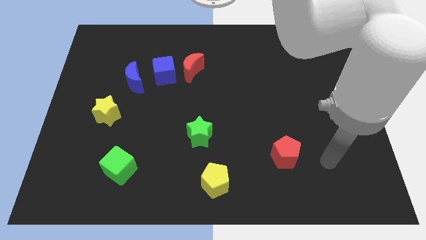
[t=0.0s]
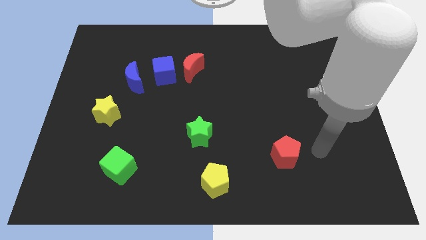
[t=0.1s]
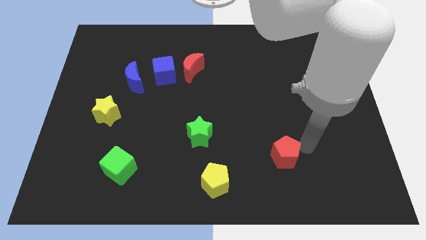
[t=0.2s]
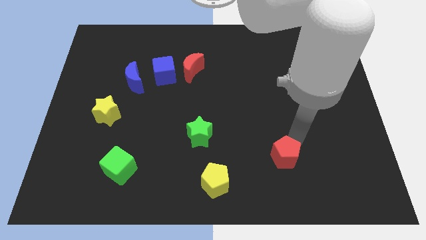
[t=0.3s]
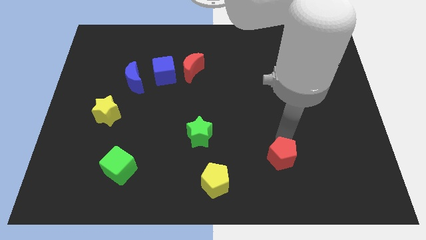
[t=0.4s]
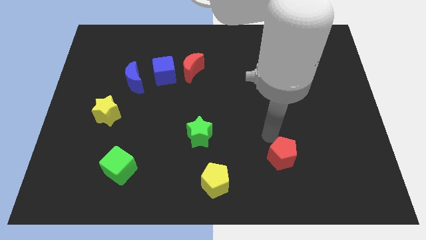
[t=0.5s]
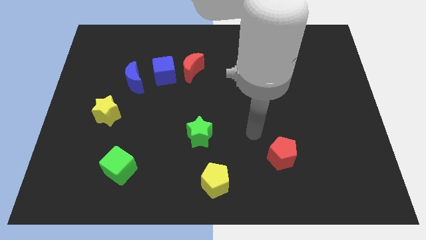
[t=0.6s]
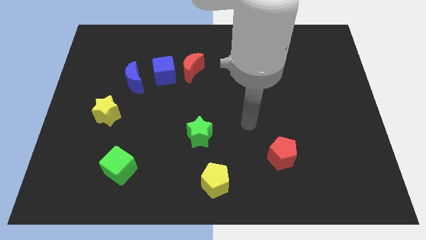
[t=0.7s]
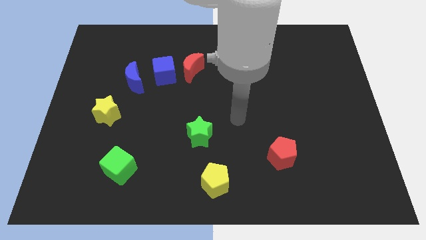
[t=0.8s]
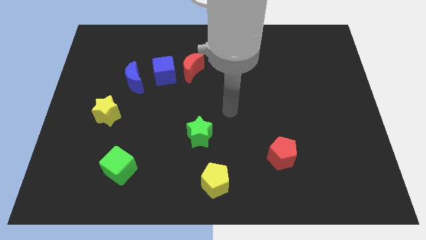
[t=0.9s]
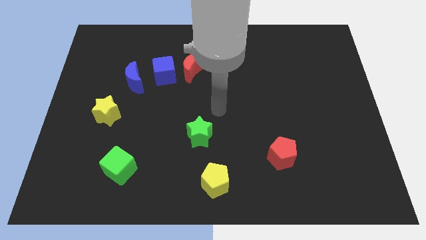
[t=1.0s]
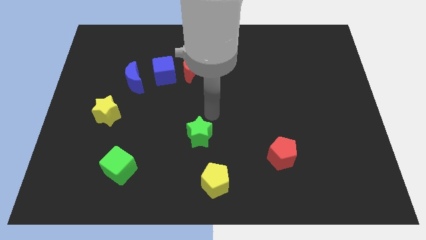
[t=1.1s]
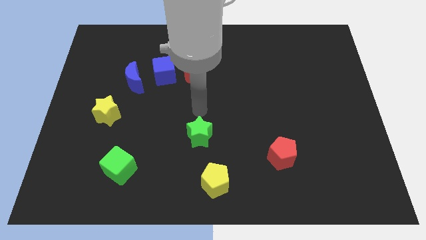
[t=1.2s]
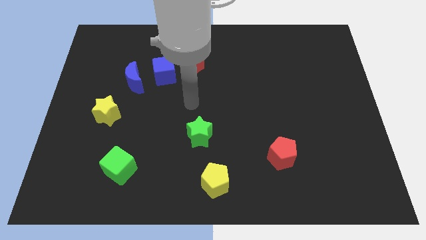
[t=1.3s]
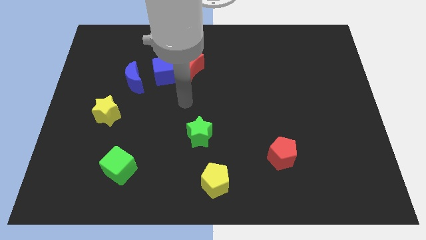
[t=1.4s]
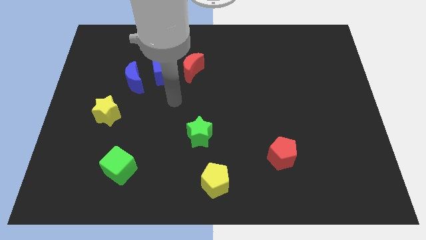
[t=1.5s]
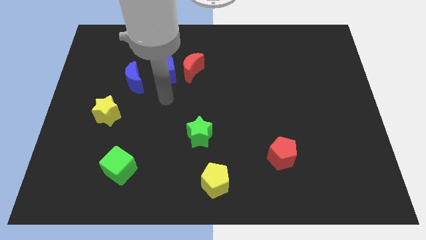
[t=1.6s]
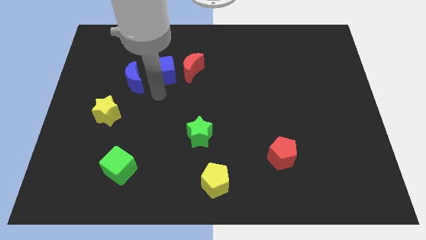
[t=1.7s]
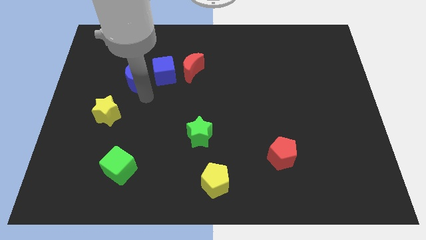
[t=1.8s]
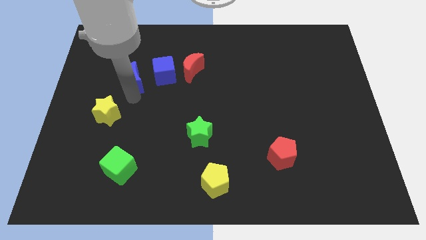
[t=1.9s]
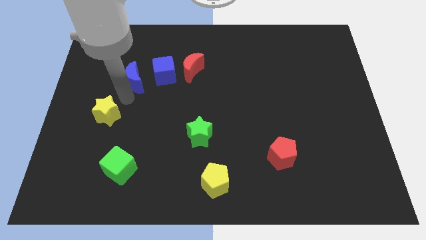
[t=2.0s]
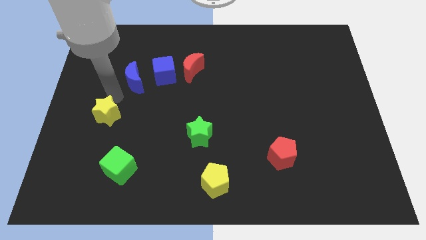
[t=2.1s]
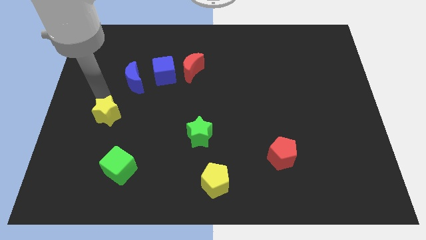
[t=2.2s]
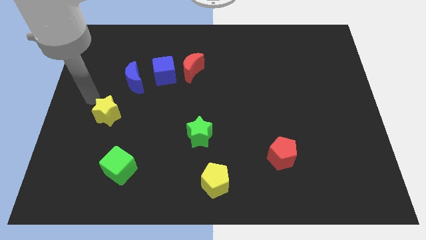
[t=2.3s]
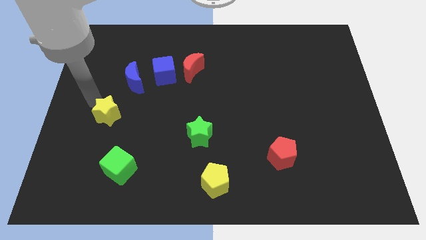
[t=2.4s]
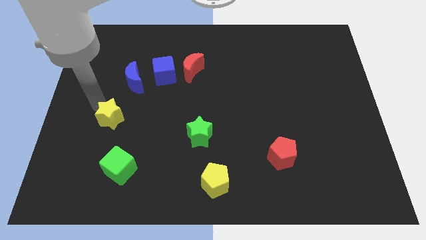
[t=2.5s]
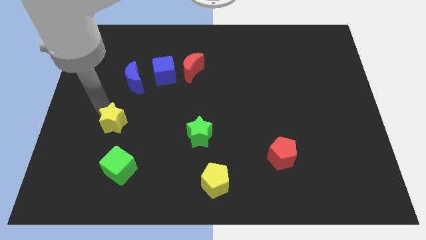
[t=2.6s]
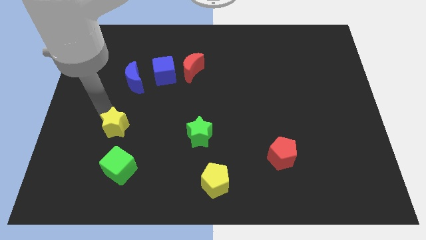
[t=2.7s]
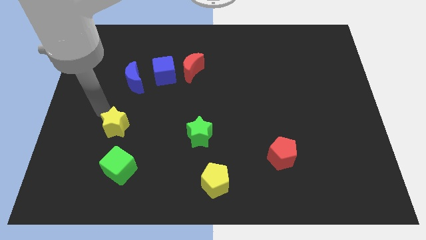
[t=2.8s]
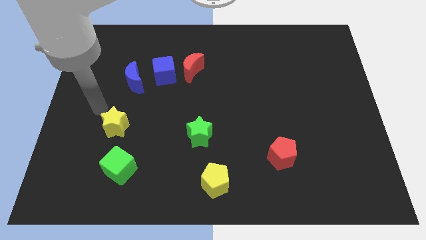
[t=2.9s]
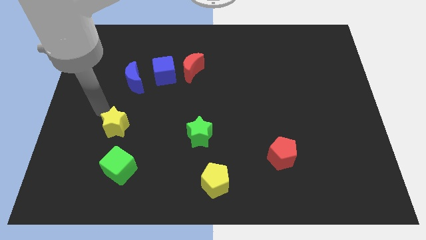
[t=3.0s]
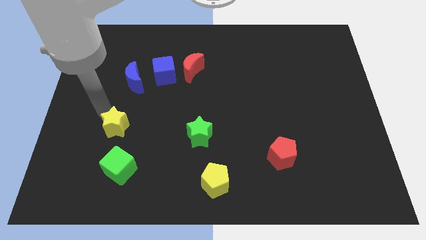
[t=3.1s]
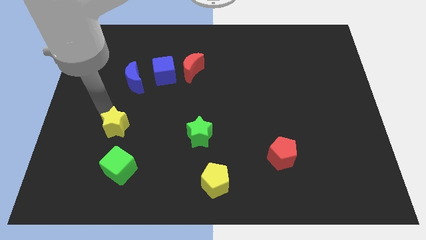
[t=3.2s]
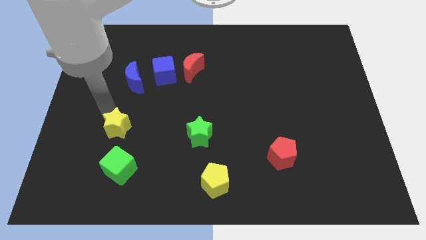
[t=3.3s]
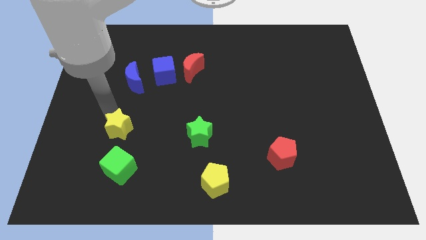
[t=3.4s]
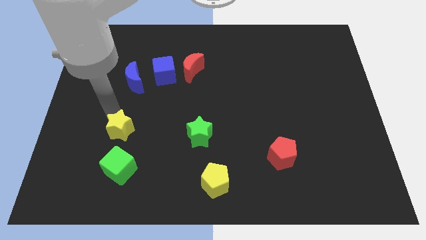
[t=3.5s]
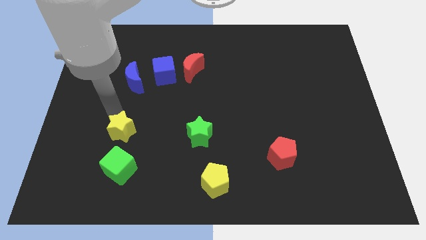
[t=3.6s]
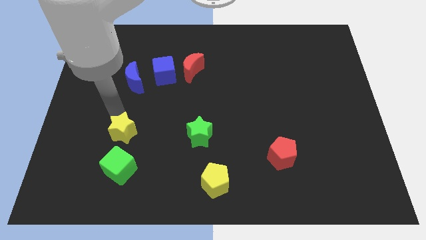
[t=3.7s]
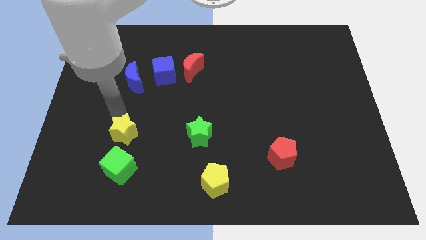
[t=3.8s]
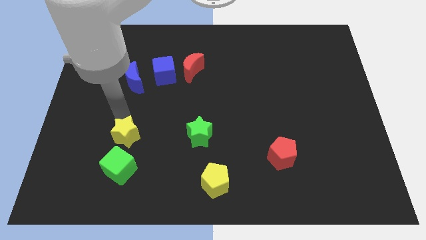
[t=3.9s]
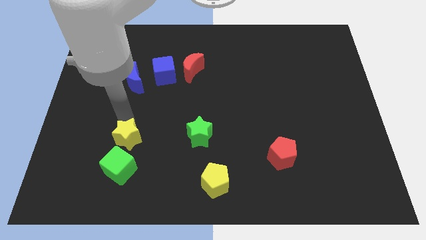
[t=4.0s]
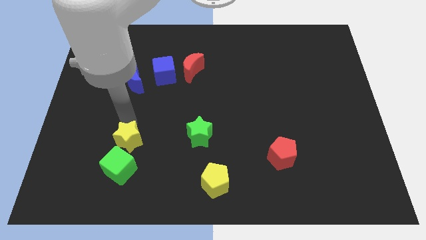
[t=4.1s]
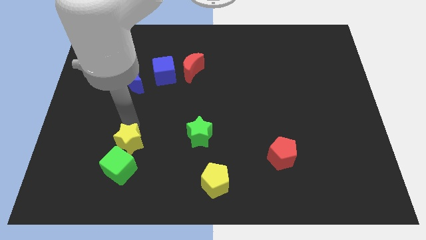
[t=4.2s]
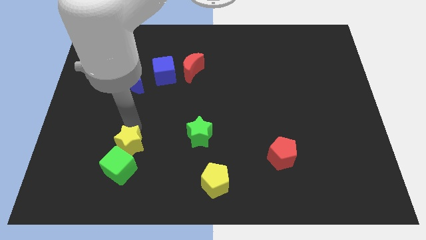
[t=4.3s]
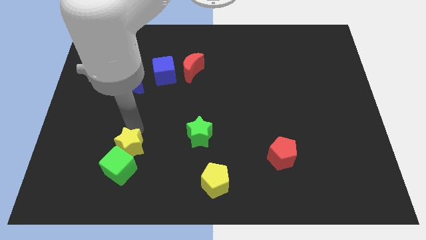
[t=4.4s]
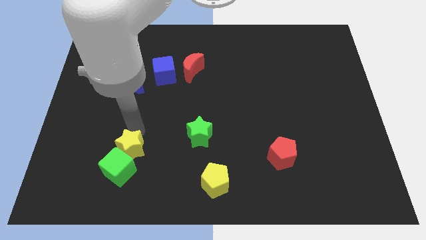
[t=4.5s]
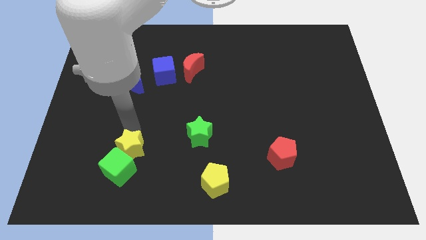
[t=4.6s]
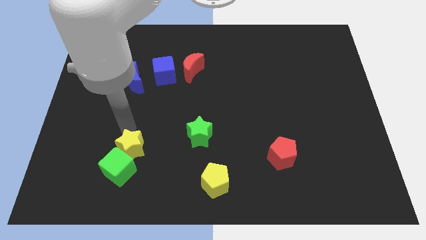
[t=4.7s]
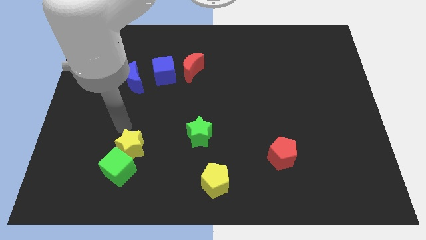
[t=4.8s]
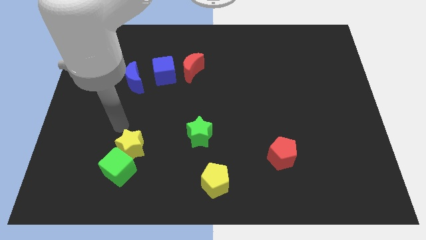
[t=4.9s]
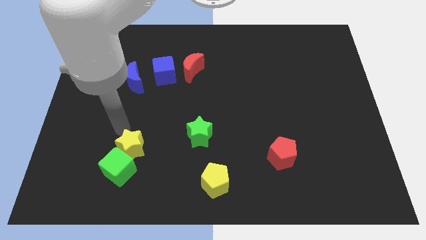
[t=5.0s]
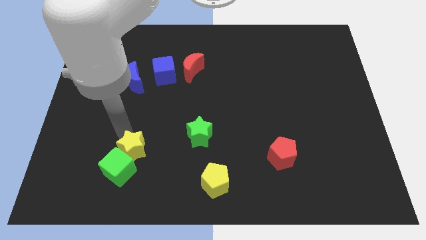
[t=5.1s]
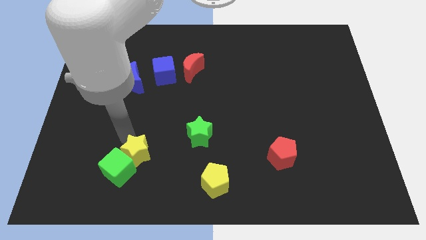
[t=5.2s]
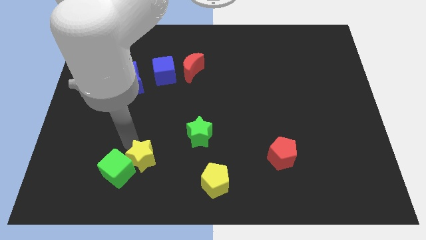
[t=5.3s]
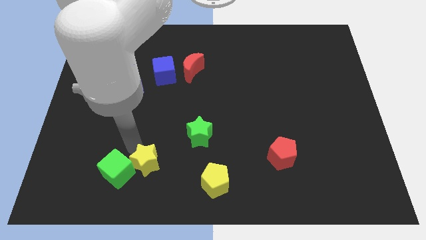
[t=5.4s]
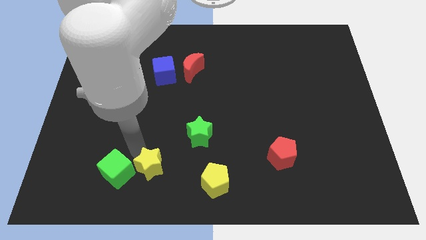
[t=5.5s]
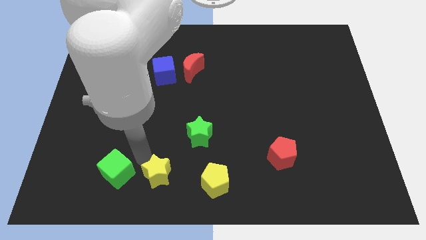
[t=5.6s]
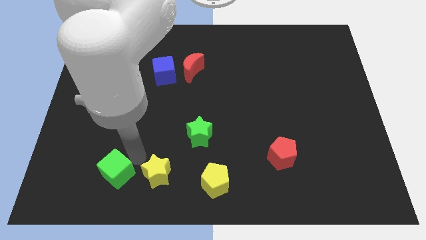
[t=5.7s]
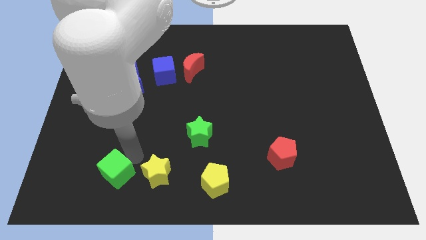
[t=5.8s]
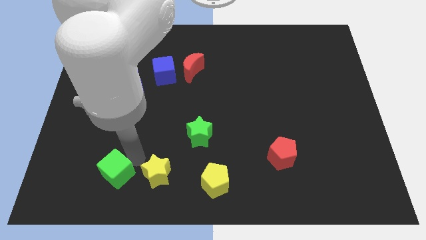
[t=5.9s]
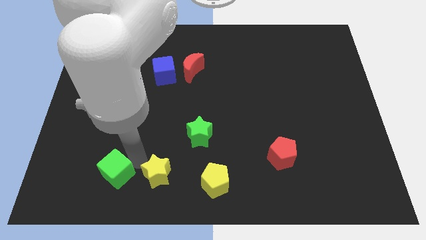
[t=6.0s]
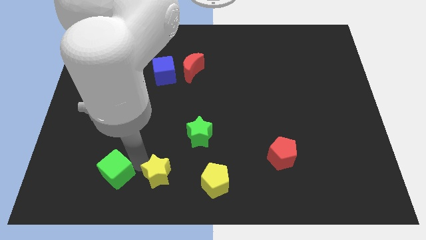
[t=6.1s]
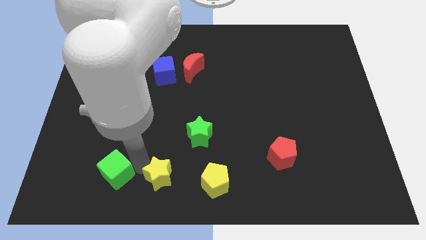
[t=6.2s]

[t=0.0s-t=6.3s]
move the yellow star to the bottom side

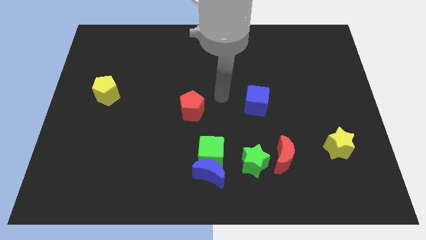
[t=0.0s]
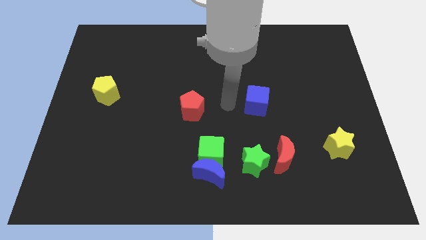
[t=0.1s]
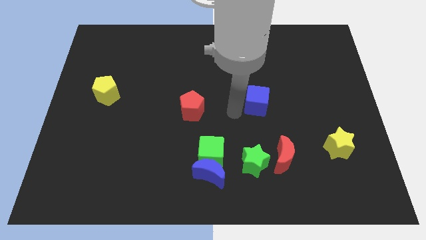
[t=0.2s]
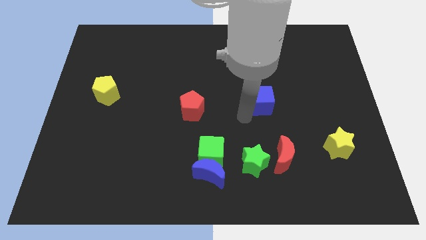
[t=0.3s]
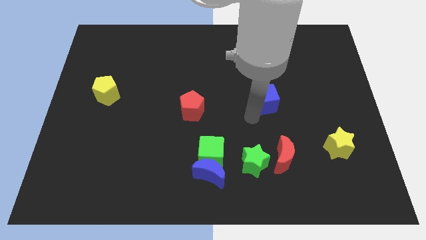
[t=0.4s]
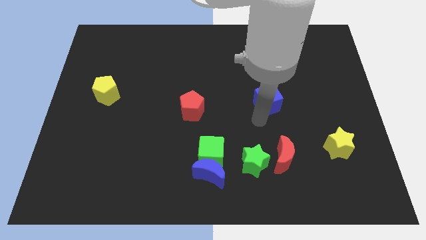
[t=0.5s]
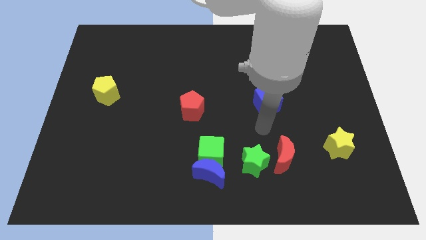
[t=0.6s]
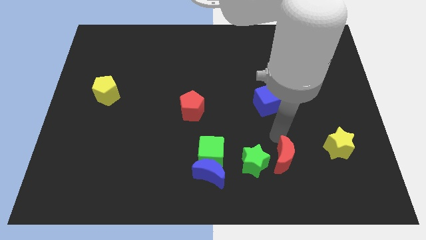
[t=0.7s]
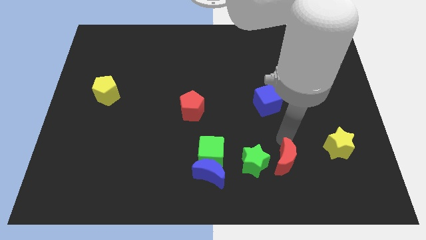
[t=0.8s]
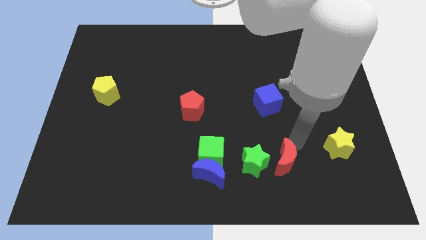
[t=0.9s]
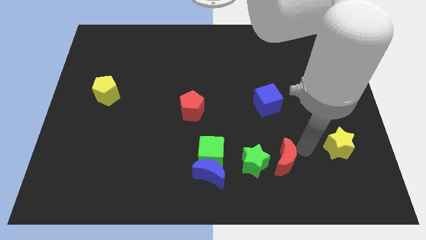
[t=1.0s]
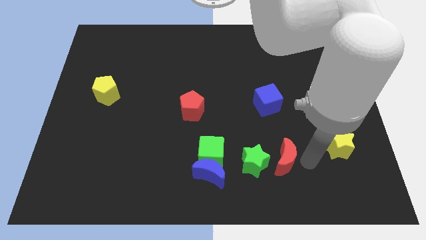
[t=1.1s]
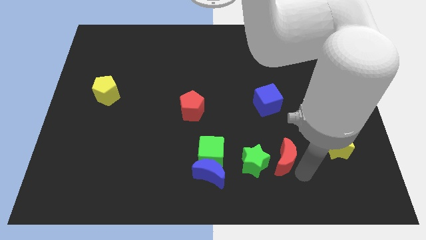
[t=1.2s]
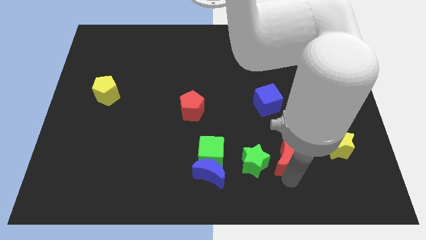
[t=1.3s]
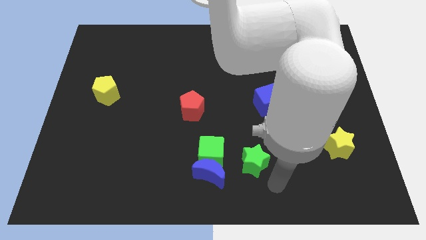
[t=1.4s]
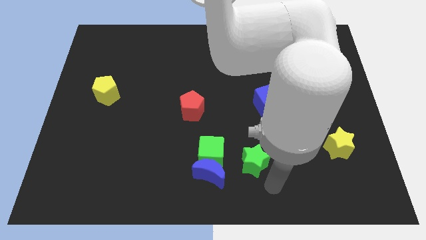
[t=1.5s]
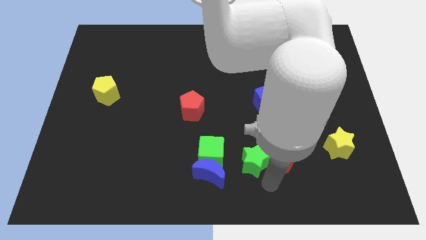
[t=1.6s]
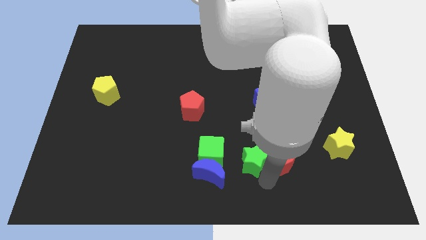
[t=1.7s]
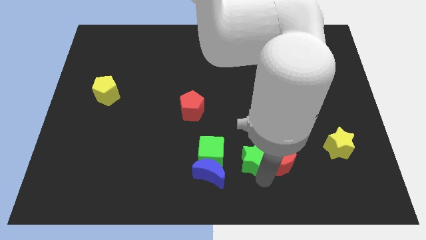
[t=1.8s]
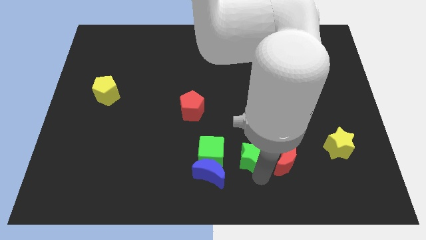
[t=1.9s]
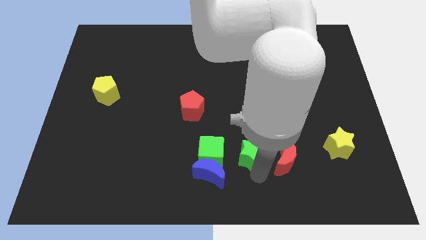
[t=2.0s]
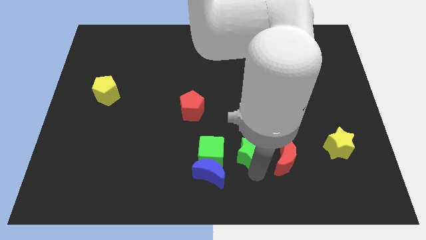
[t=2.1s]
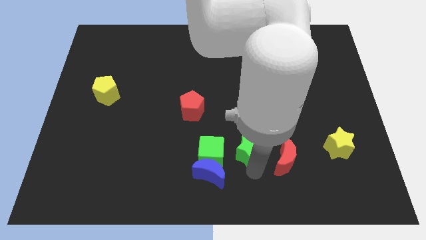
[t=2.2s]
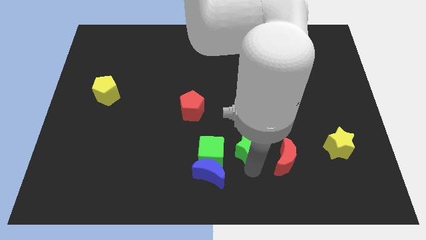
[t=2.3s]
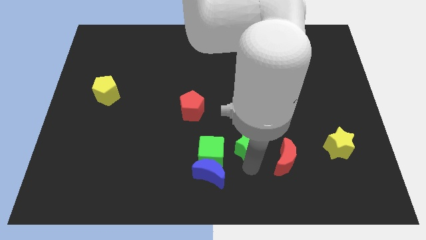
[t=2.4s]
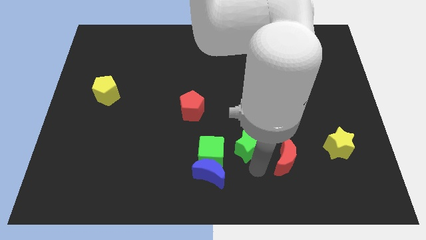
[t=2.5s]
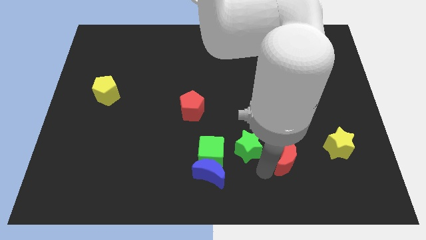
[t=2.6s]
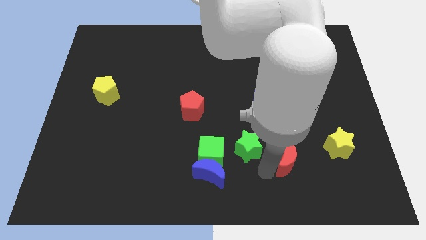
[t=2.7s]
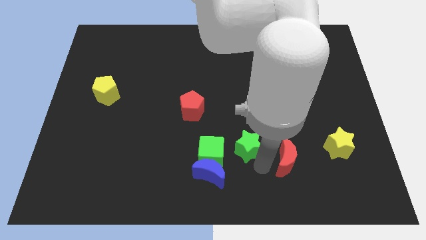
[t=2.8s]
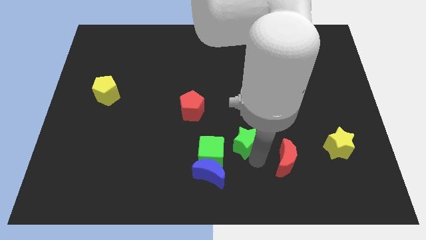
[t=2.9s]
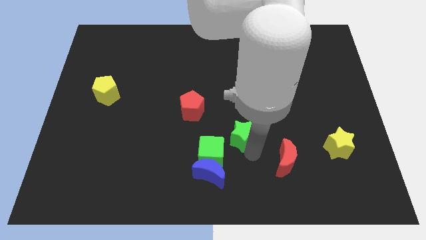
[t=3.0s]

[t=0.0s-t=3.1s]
move the green star to the middle
